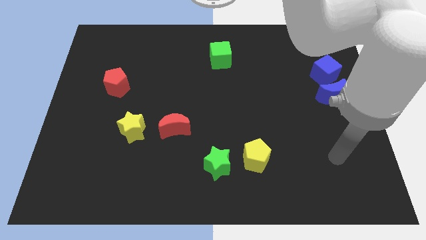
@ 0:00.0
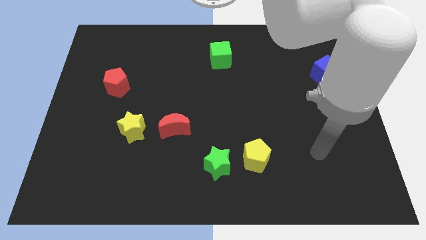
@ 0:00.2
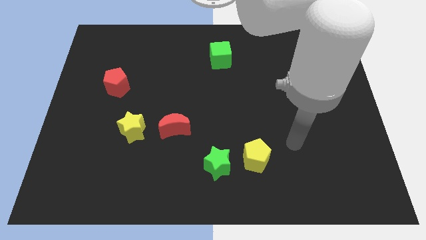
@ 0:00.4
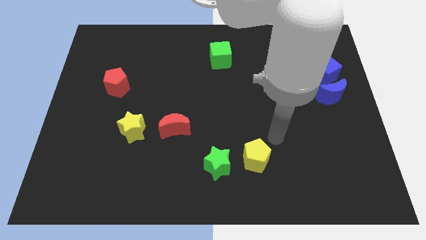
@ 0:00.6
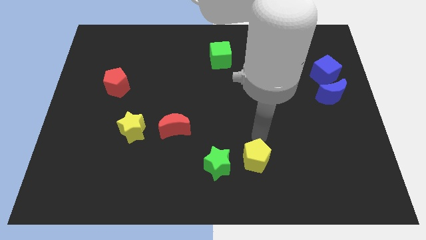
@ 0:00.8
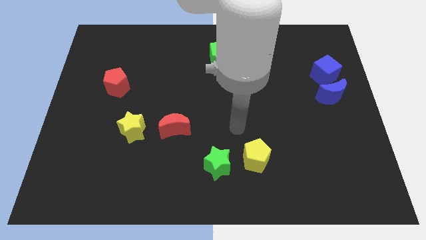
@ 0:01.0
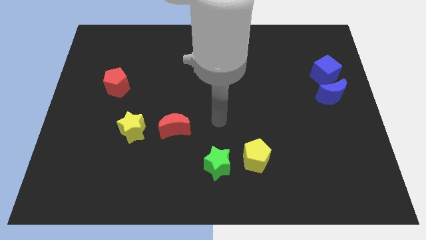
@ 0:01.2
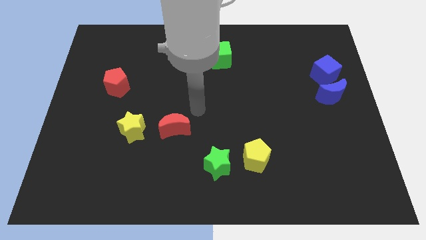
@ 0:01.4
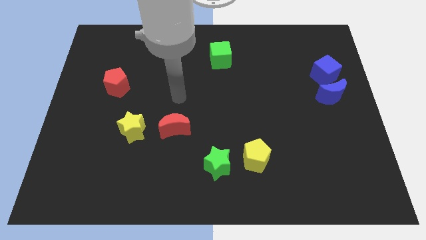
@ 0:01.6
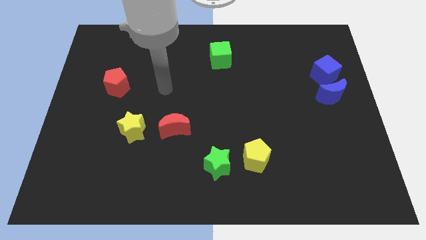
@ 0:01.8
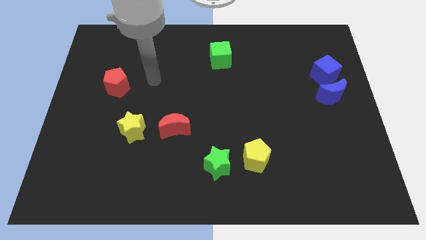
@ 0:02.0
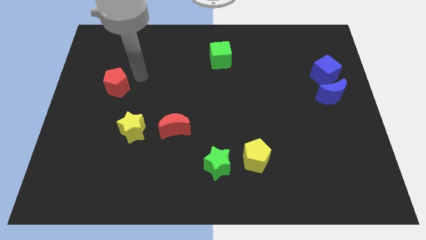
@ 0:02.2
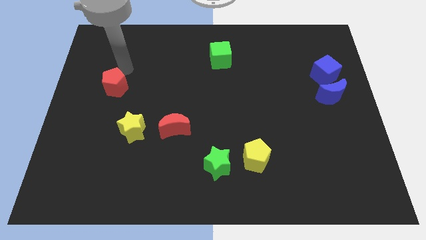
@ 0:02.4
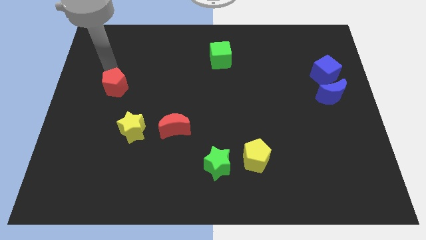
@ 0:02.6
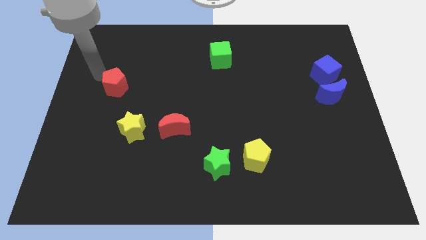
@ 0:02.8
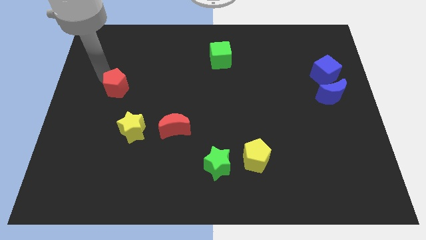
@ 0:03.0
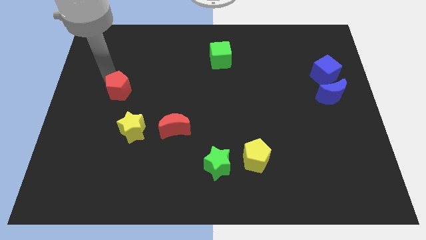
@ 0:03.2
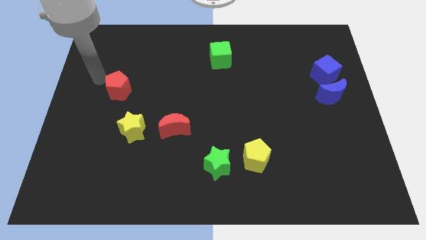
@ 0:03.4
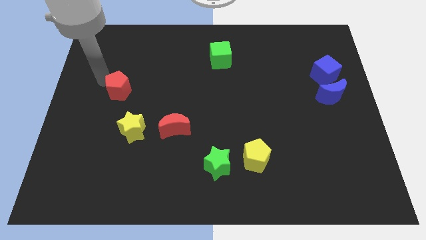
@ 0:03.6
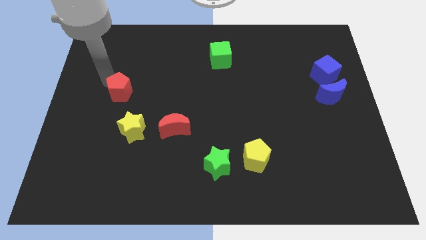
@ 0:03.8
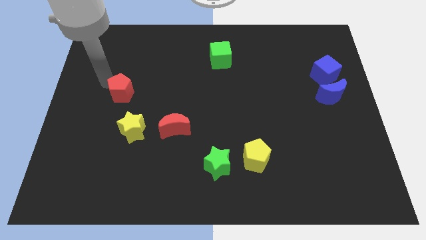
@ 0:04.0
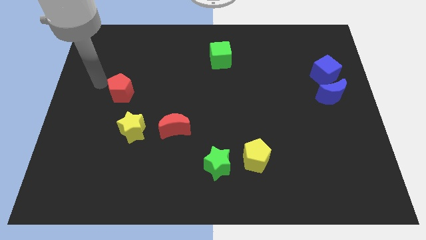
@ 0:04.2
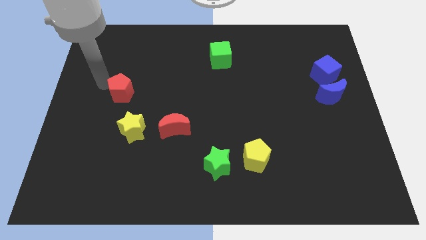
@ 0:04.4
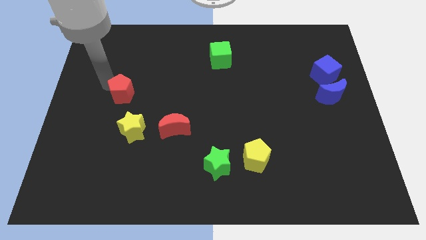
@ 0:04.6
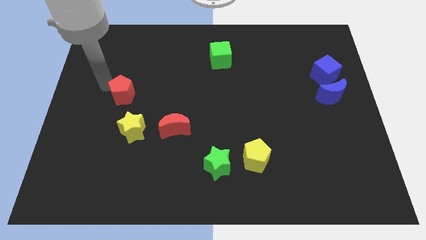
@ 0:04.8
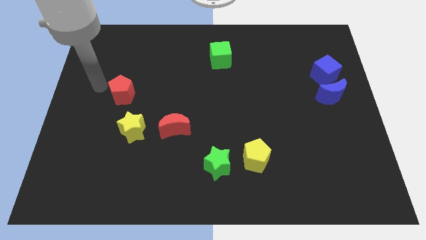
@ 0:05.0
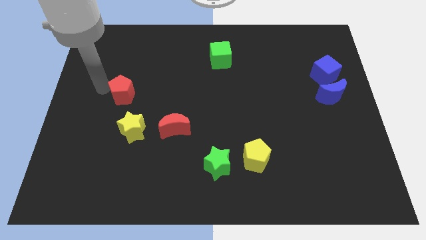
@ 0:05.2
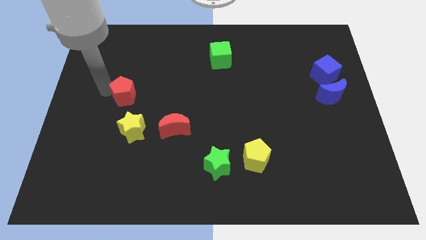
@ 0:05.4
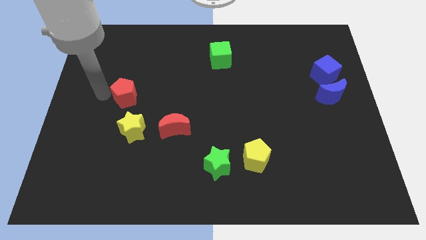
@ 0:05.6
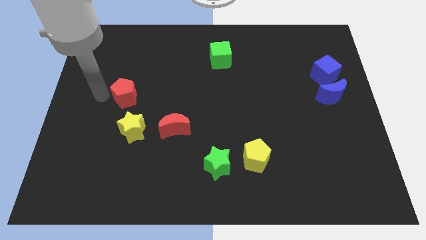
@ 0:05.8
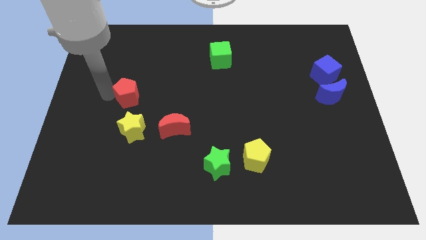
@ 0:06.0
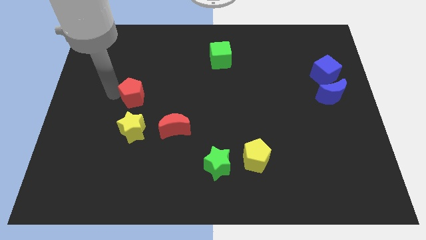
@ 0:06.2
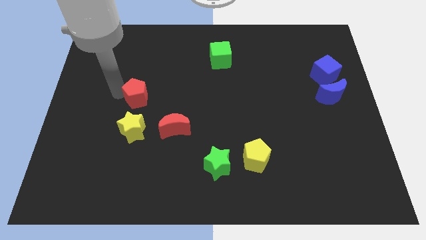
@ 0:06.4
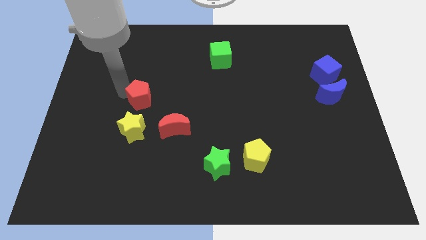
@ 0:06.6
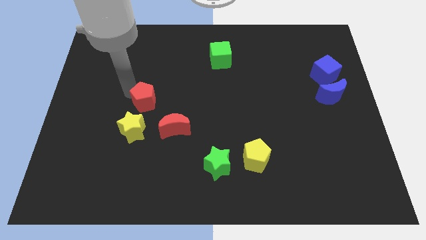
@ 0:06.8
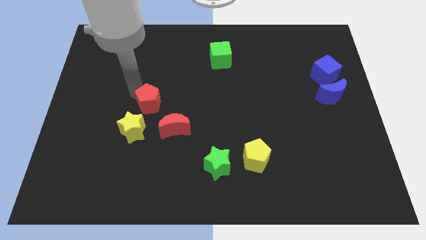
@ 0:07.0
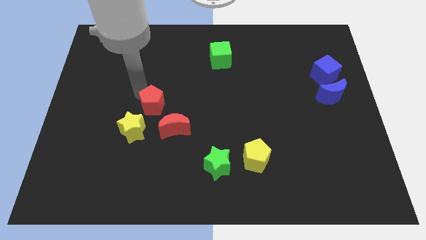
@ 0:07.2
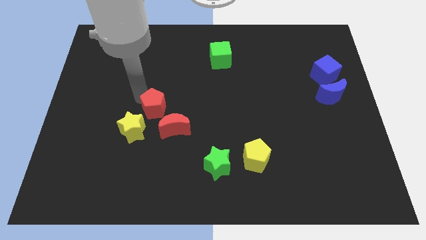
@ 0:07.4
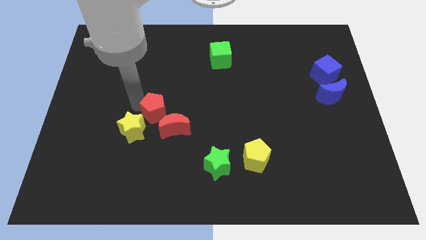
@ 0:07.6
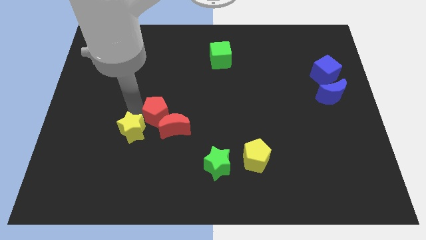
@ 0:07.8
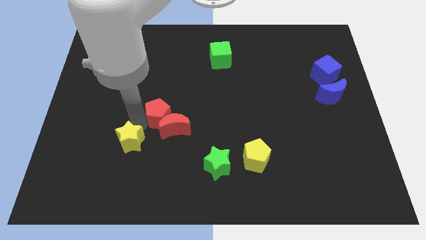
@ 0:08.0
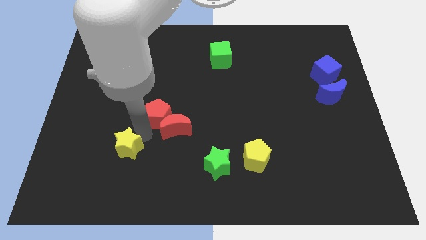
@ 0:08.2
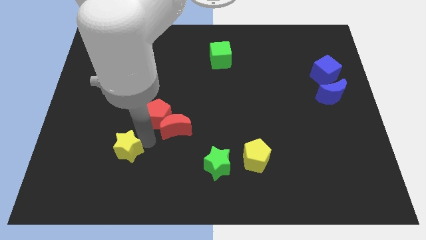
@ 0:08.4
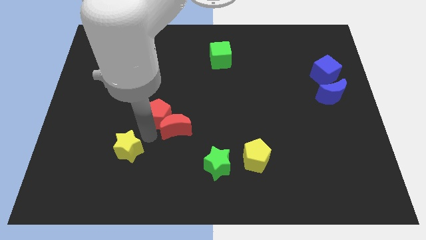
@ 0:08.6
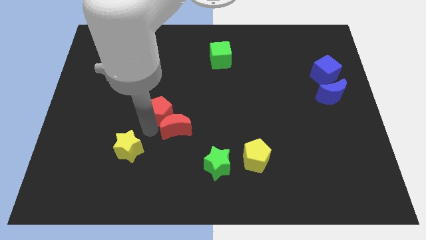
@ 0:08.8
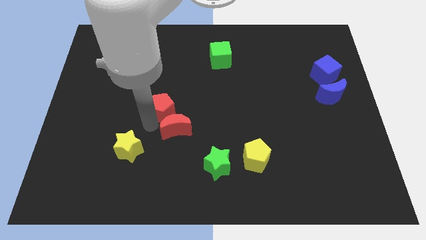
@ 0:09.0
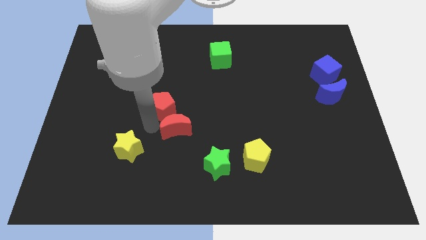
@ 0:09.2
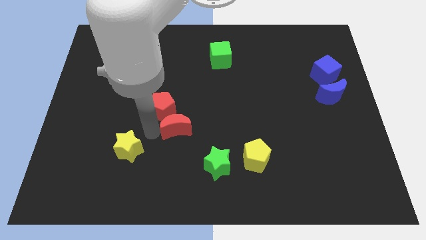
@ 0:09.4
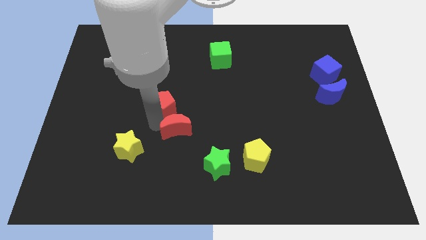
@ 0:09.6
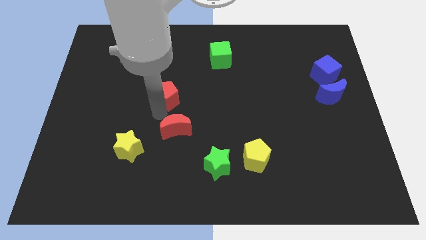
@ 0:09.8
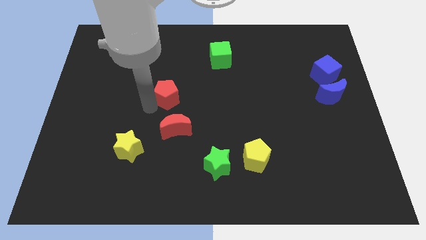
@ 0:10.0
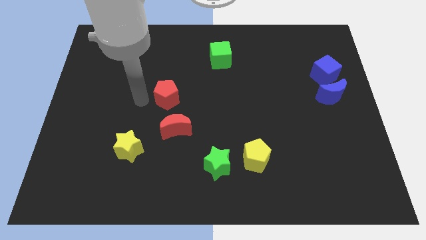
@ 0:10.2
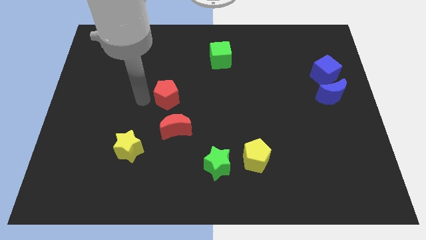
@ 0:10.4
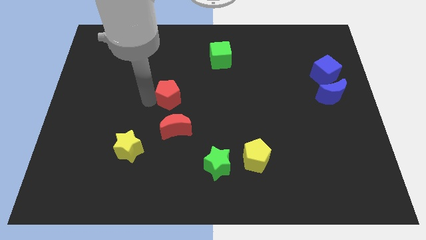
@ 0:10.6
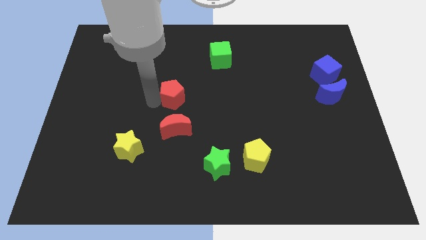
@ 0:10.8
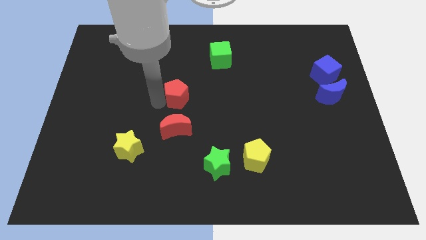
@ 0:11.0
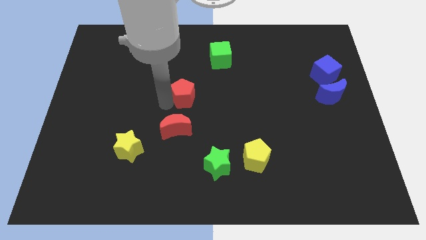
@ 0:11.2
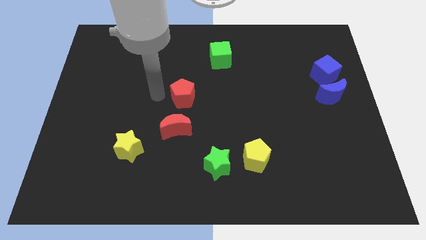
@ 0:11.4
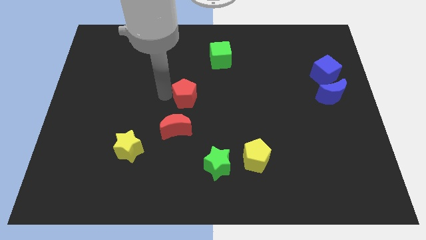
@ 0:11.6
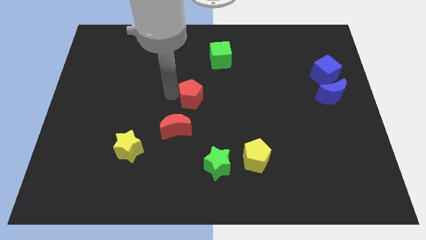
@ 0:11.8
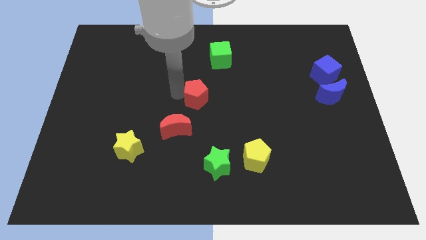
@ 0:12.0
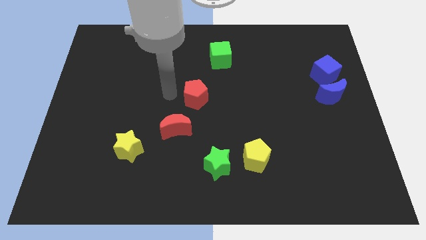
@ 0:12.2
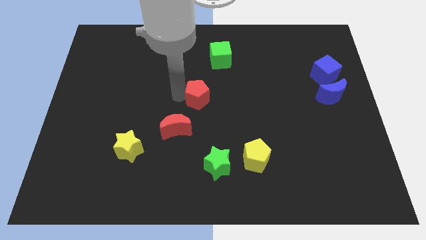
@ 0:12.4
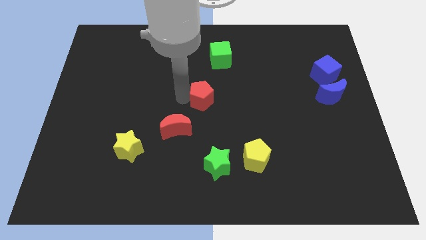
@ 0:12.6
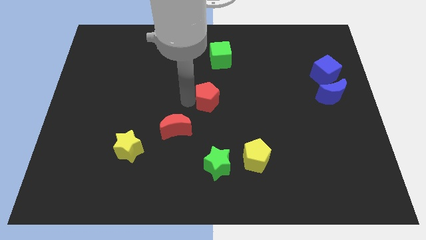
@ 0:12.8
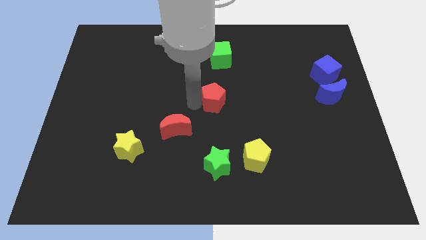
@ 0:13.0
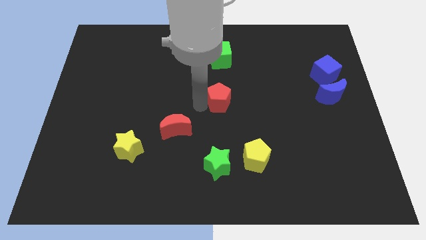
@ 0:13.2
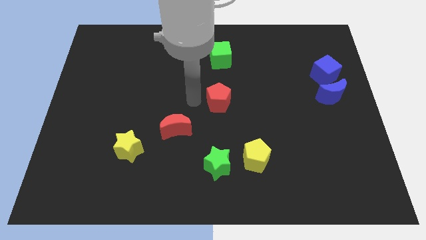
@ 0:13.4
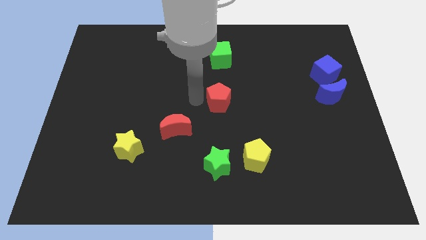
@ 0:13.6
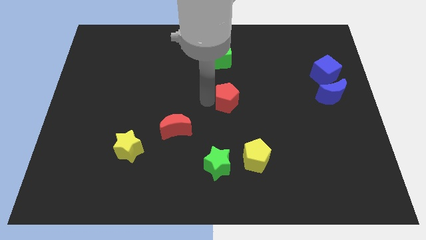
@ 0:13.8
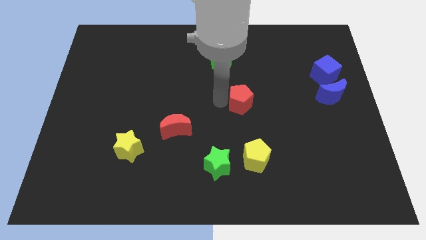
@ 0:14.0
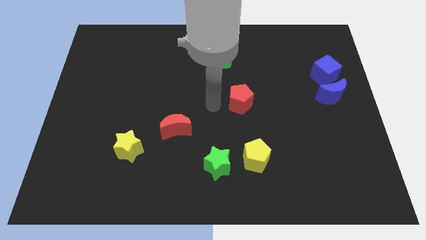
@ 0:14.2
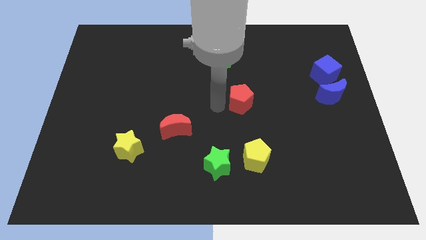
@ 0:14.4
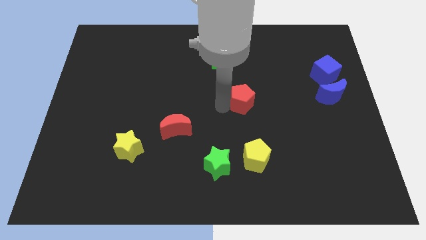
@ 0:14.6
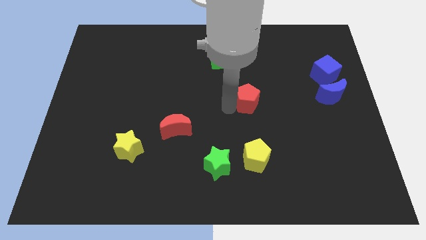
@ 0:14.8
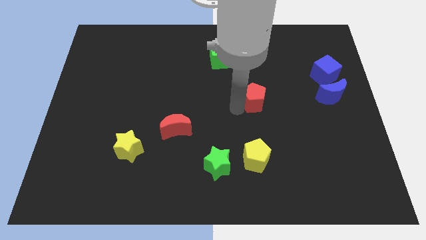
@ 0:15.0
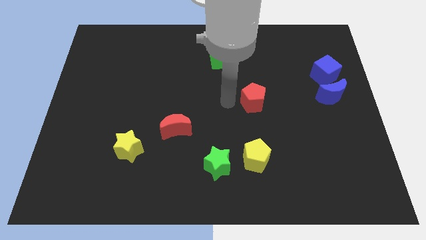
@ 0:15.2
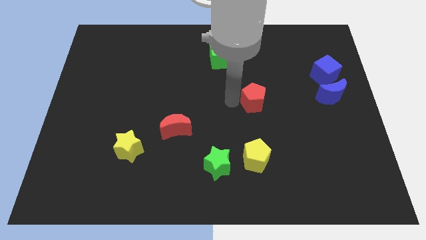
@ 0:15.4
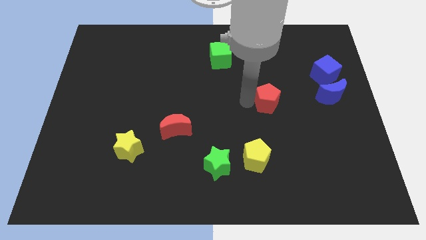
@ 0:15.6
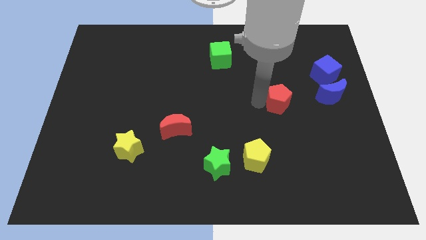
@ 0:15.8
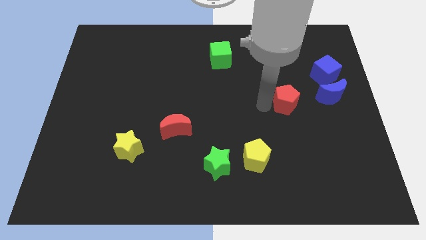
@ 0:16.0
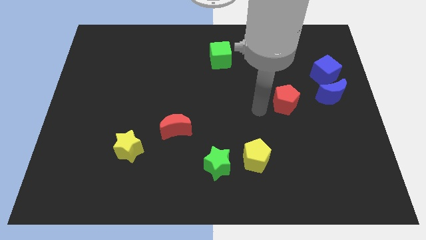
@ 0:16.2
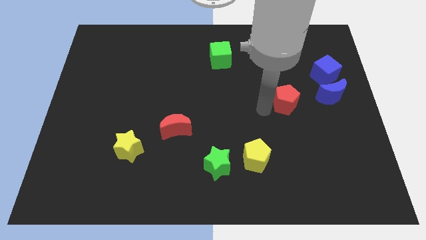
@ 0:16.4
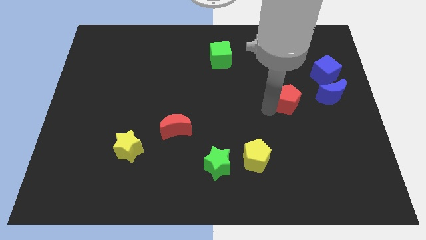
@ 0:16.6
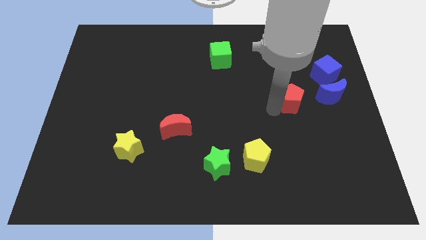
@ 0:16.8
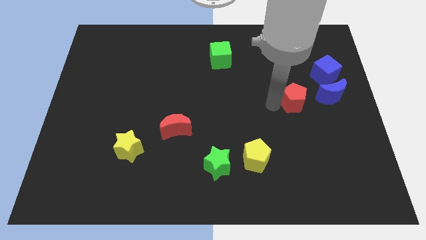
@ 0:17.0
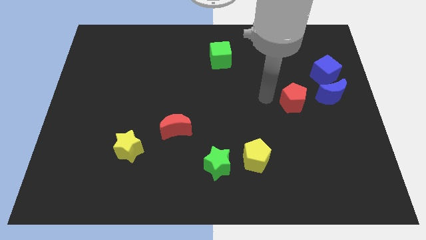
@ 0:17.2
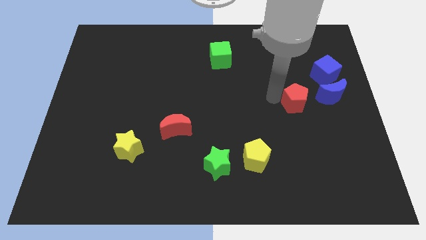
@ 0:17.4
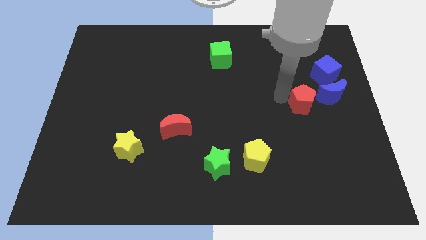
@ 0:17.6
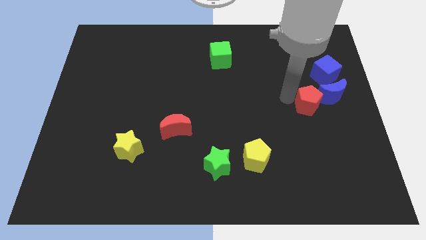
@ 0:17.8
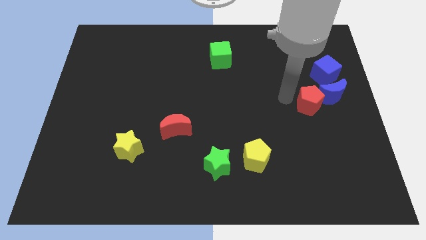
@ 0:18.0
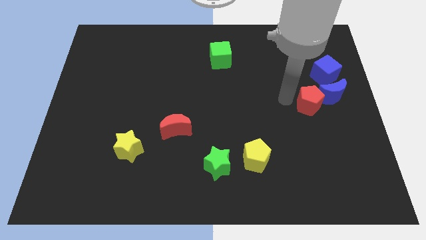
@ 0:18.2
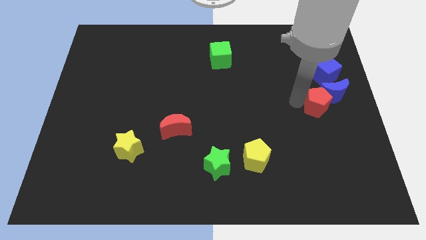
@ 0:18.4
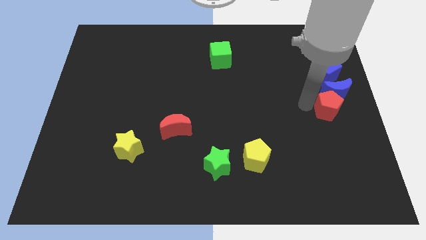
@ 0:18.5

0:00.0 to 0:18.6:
push the red pentagon to the center right
